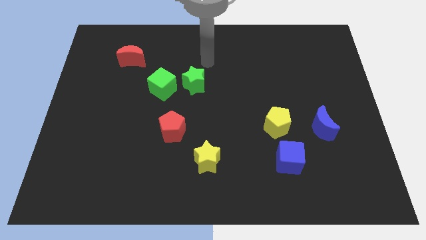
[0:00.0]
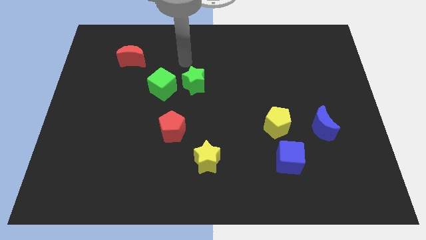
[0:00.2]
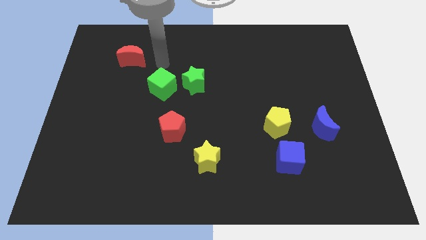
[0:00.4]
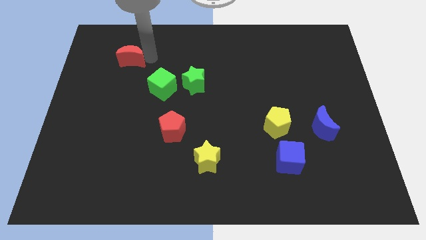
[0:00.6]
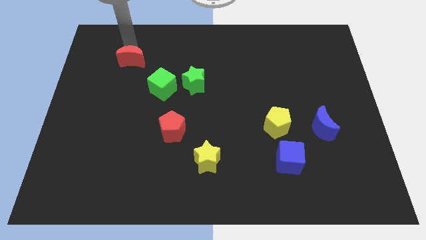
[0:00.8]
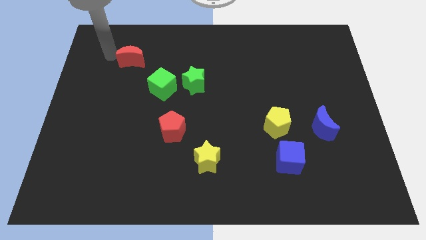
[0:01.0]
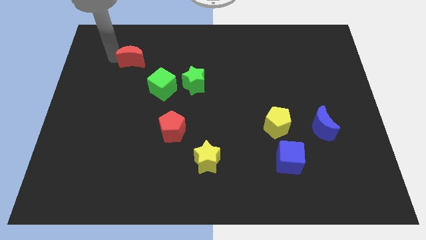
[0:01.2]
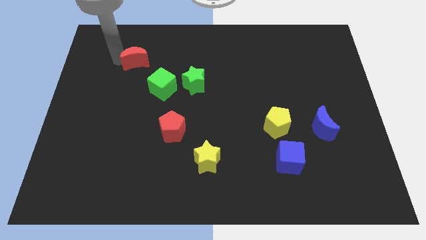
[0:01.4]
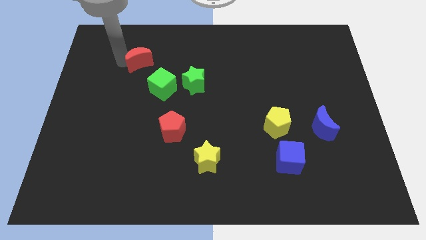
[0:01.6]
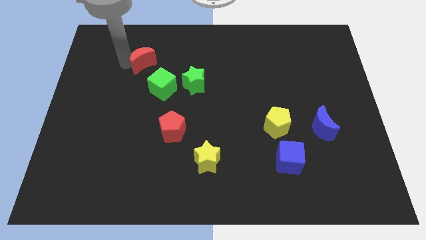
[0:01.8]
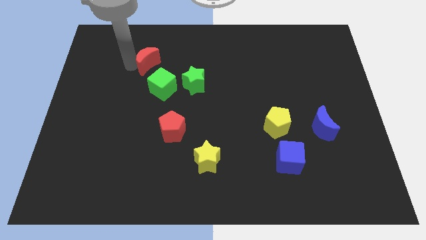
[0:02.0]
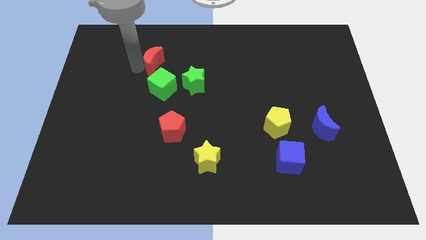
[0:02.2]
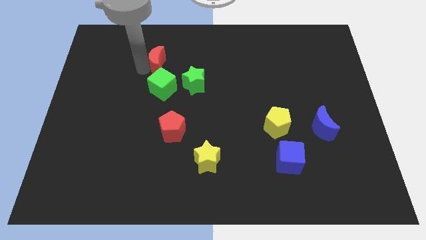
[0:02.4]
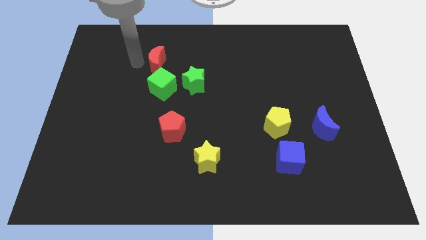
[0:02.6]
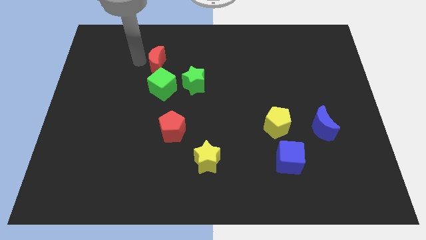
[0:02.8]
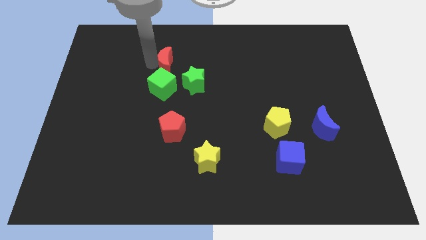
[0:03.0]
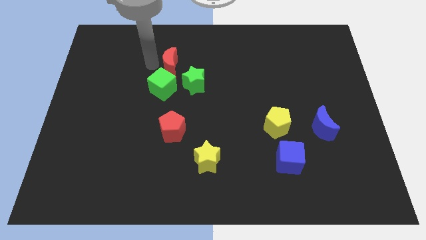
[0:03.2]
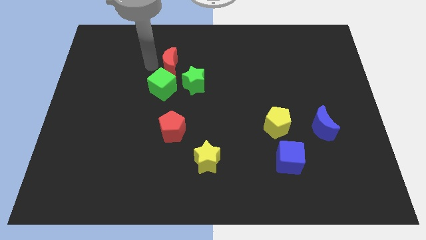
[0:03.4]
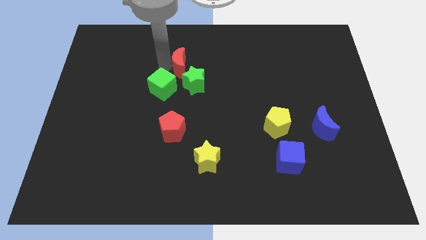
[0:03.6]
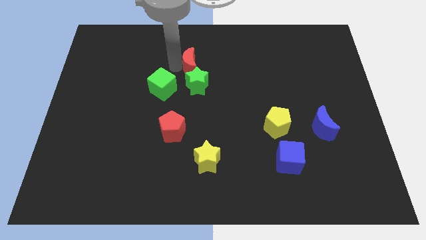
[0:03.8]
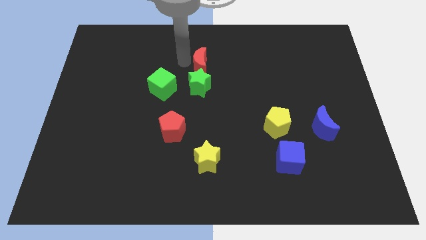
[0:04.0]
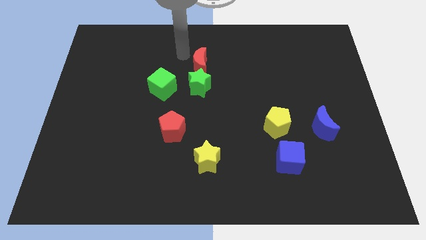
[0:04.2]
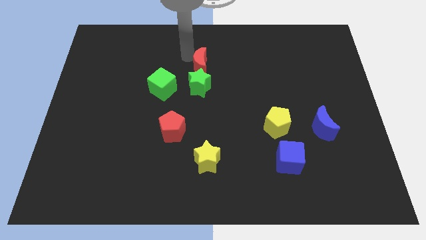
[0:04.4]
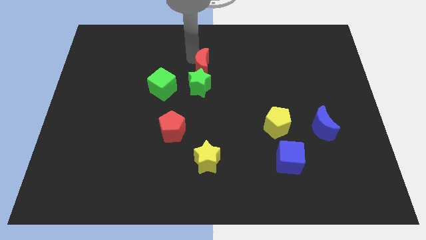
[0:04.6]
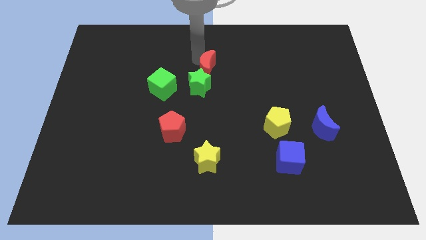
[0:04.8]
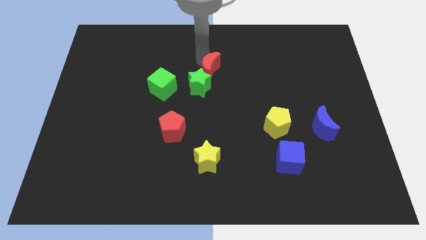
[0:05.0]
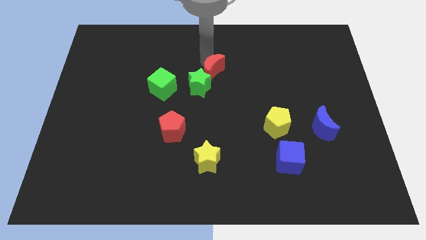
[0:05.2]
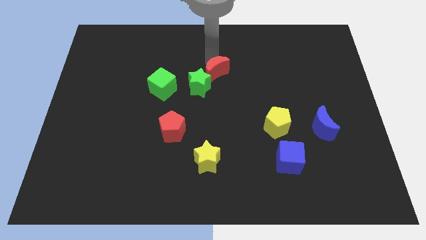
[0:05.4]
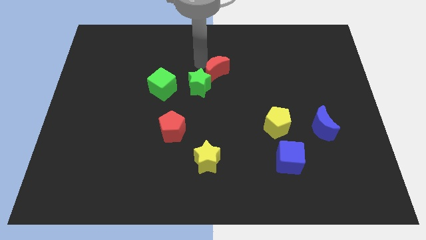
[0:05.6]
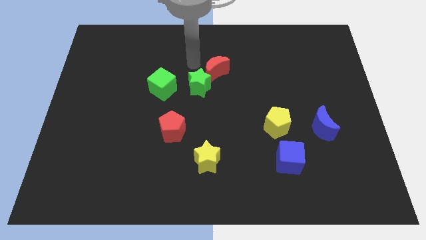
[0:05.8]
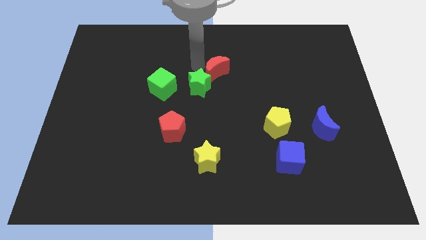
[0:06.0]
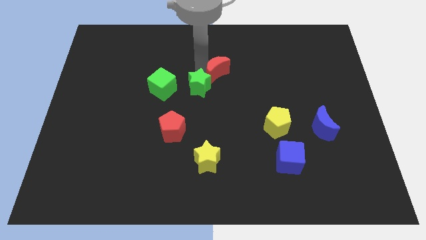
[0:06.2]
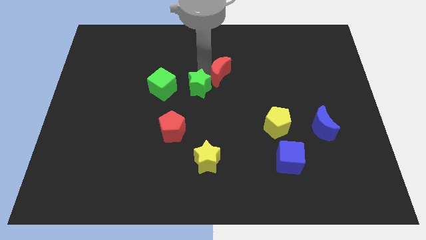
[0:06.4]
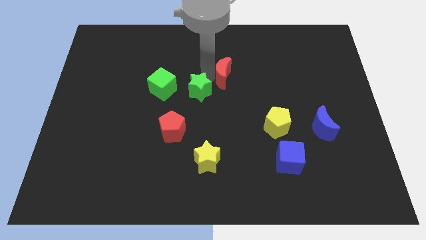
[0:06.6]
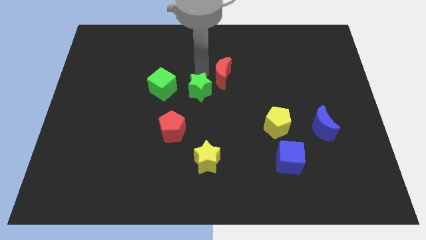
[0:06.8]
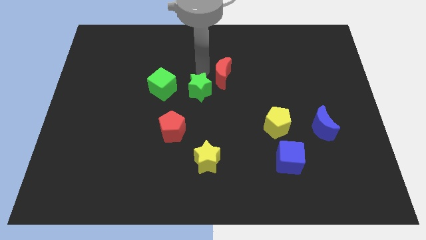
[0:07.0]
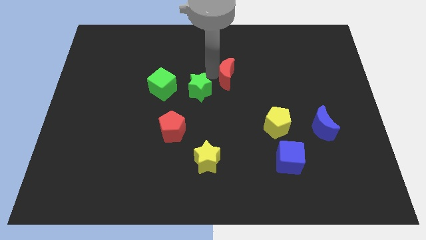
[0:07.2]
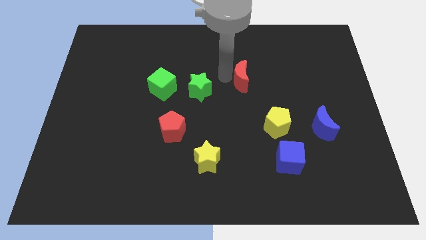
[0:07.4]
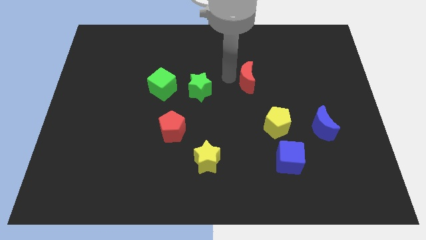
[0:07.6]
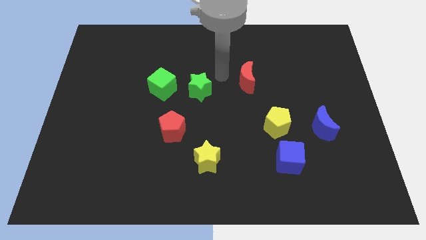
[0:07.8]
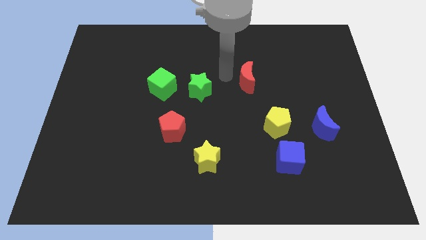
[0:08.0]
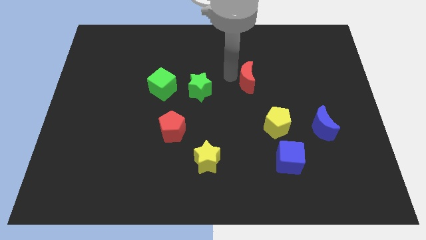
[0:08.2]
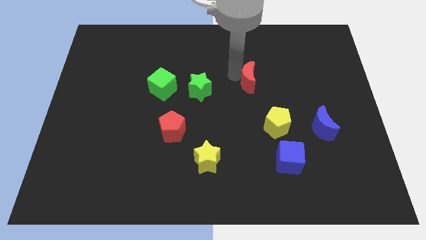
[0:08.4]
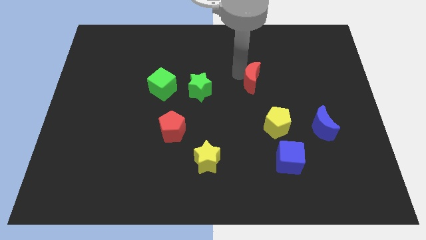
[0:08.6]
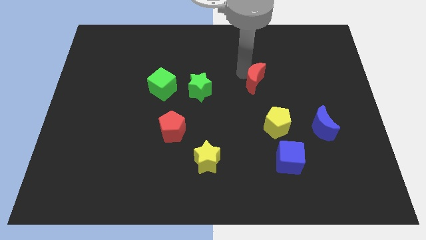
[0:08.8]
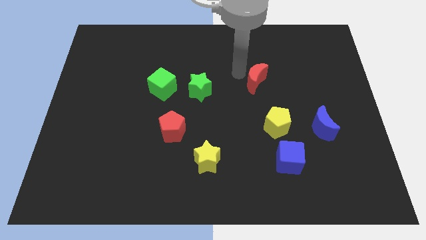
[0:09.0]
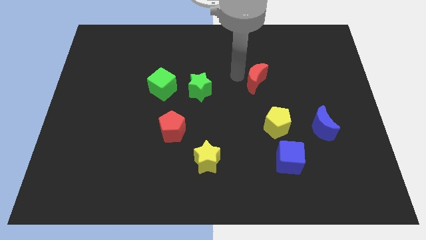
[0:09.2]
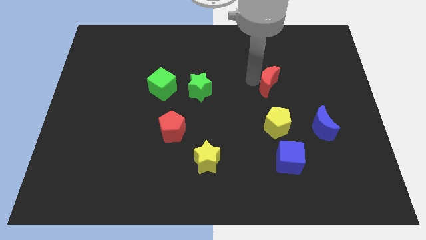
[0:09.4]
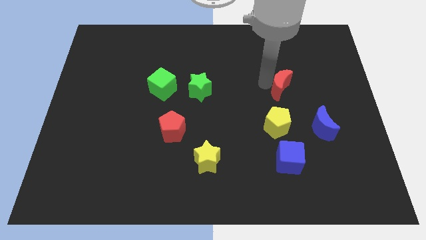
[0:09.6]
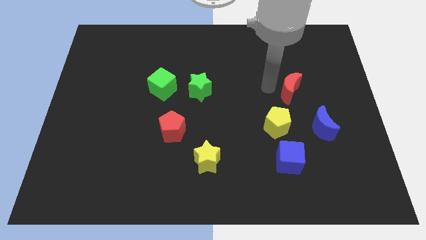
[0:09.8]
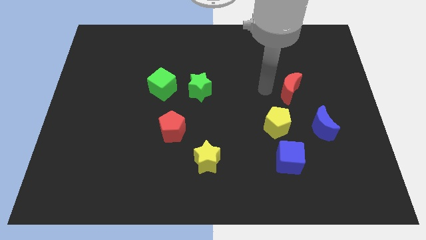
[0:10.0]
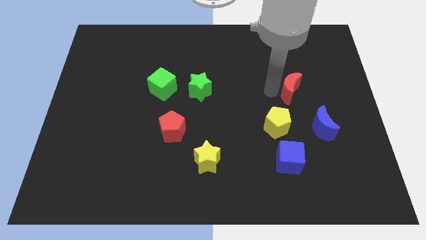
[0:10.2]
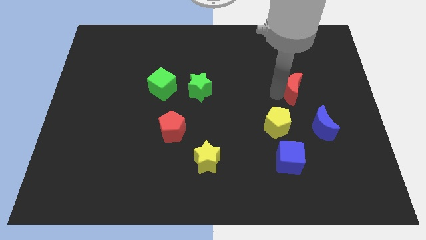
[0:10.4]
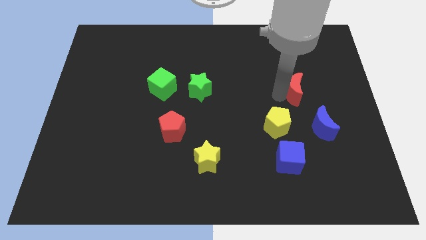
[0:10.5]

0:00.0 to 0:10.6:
move the red moon to the top of the blue moon

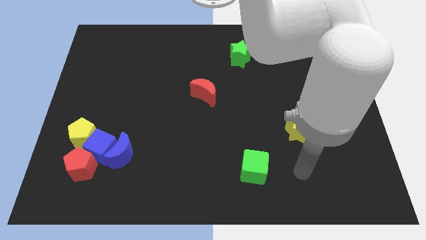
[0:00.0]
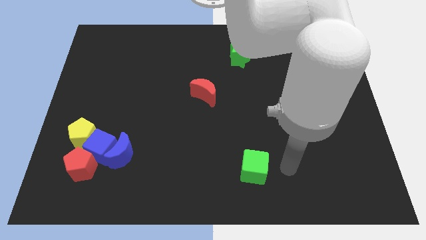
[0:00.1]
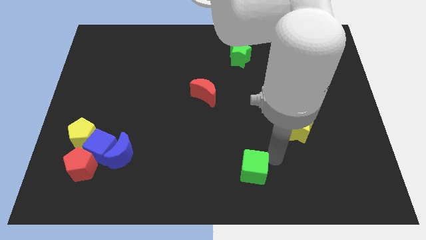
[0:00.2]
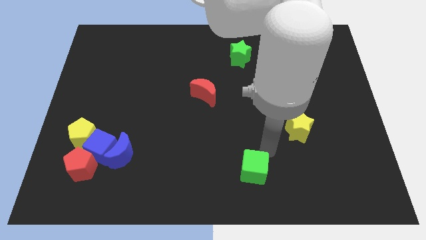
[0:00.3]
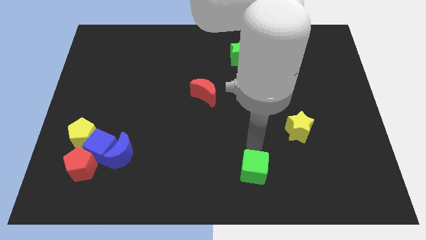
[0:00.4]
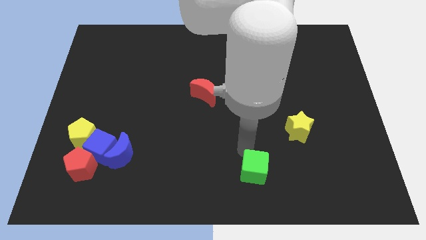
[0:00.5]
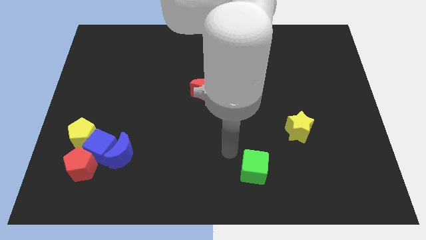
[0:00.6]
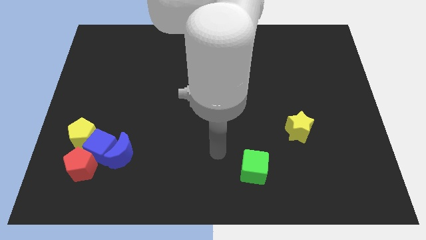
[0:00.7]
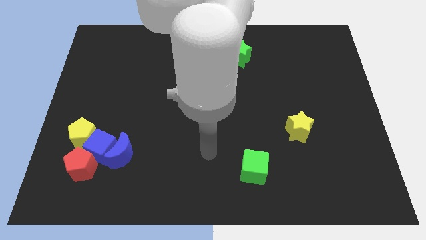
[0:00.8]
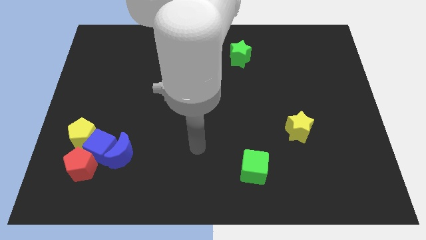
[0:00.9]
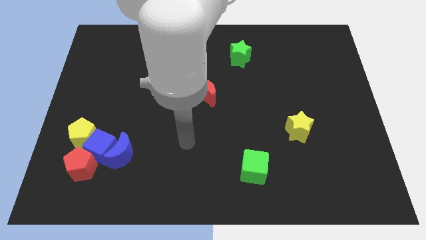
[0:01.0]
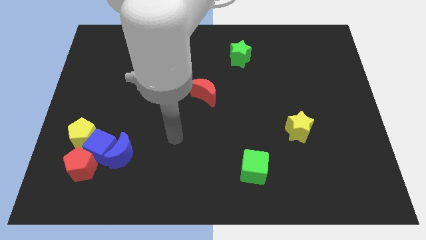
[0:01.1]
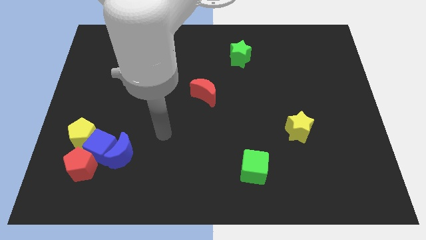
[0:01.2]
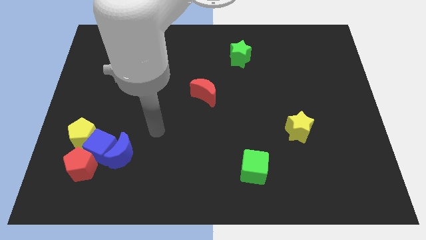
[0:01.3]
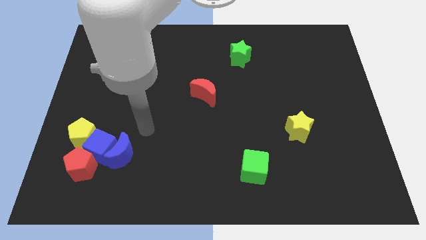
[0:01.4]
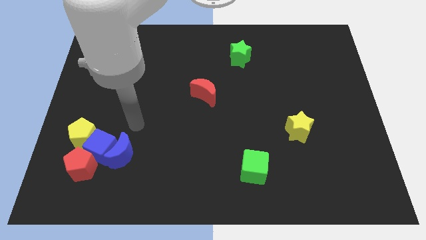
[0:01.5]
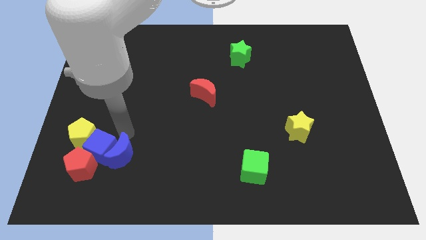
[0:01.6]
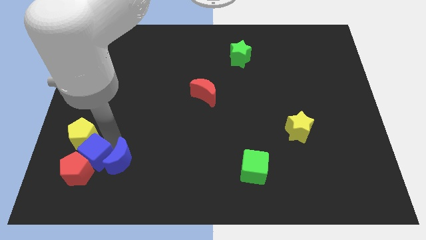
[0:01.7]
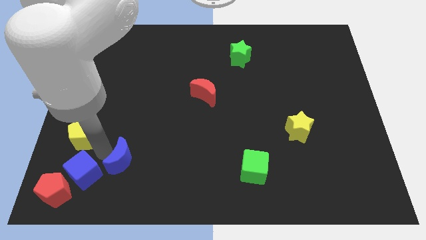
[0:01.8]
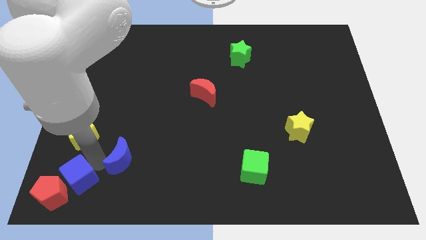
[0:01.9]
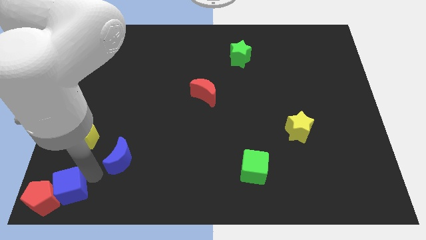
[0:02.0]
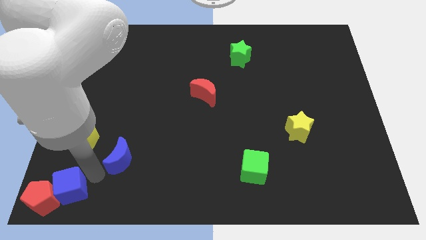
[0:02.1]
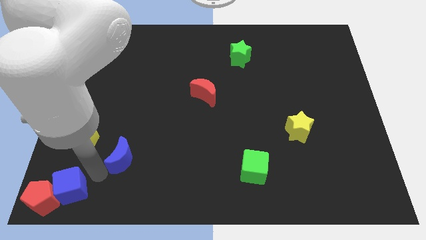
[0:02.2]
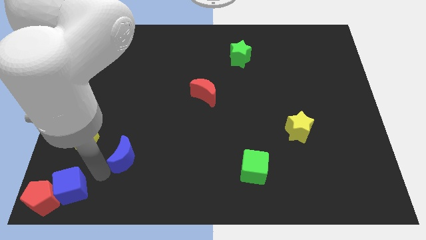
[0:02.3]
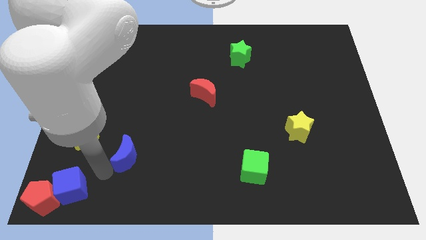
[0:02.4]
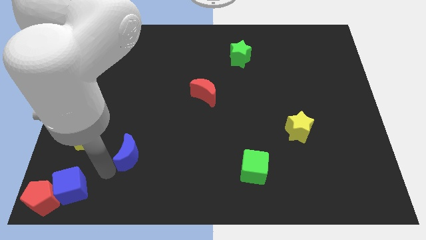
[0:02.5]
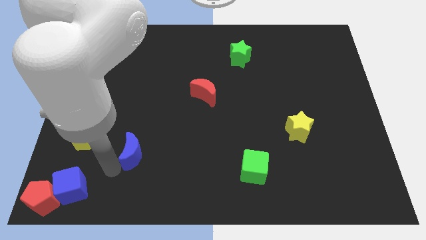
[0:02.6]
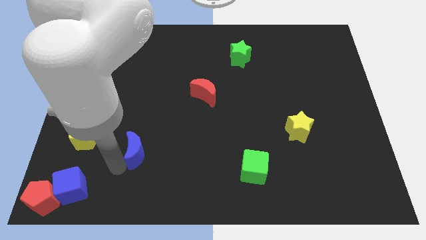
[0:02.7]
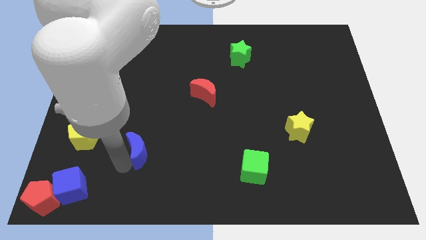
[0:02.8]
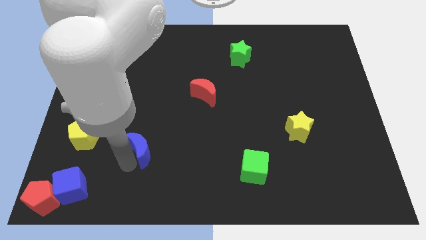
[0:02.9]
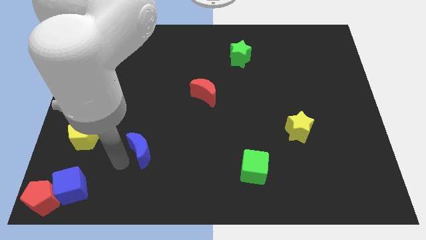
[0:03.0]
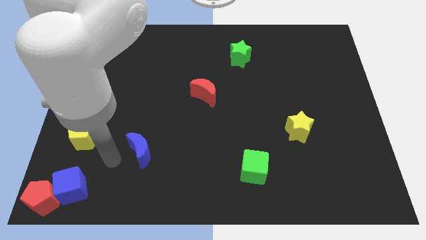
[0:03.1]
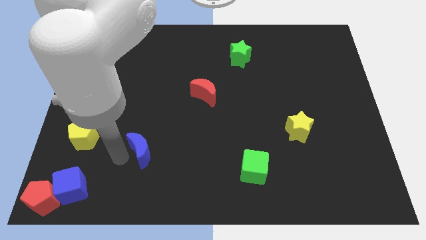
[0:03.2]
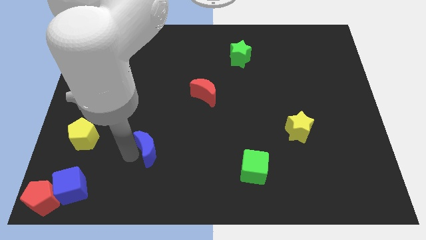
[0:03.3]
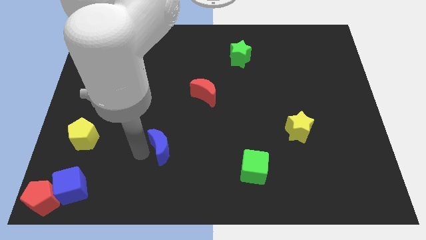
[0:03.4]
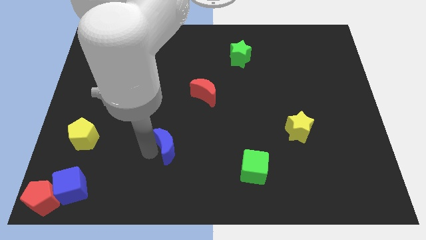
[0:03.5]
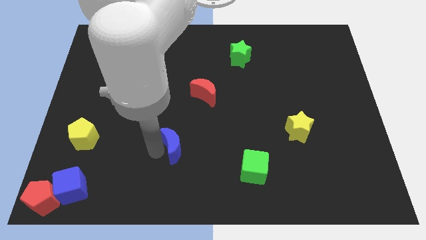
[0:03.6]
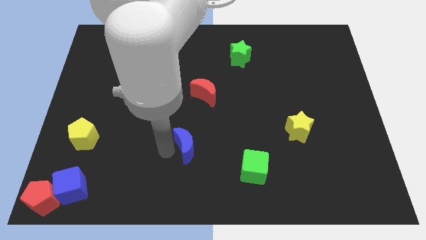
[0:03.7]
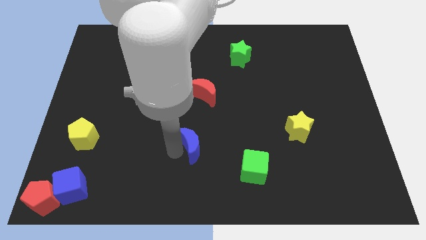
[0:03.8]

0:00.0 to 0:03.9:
put the blue moon to the bottom side of the red moon
